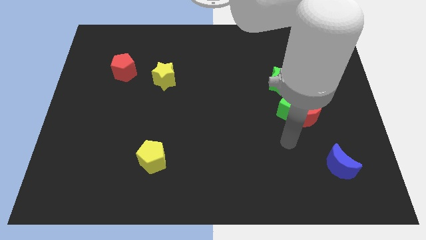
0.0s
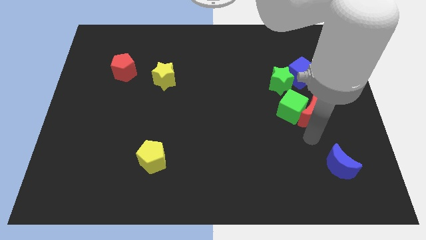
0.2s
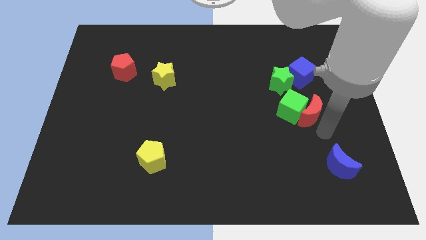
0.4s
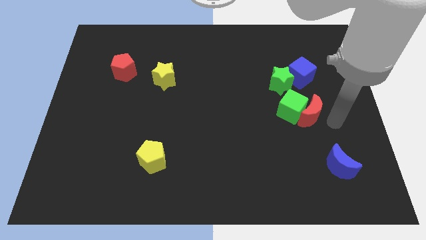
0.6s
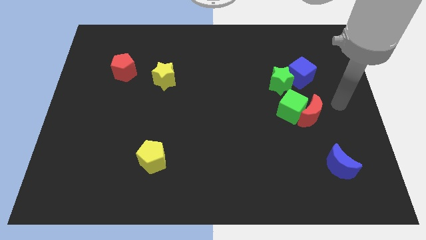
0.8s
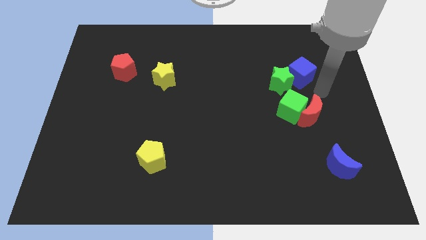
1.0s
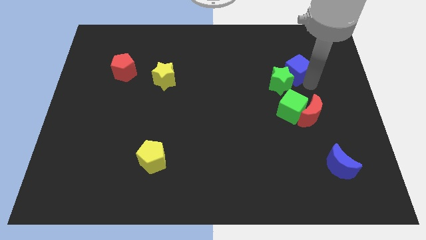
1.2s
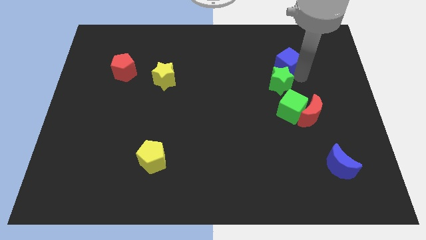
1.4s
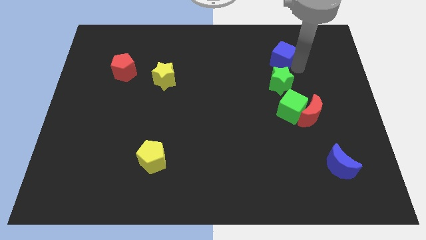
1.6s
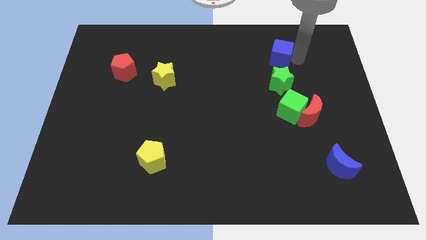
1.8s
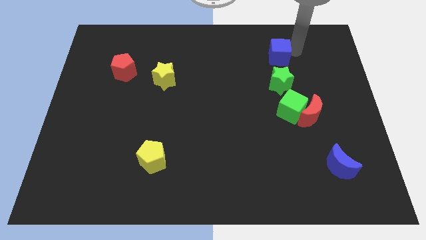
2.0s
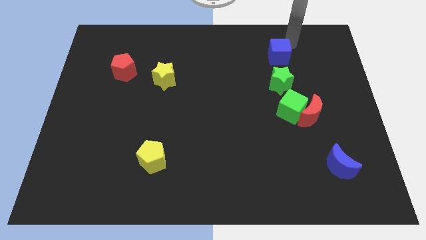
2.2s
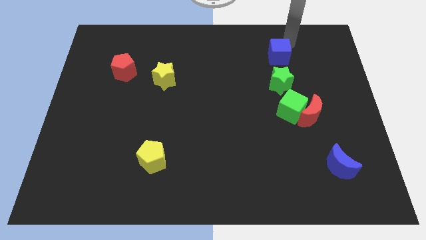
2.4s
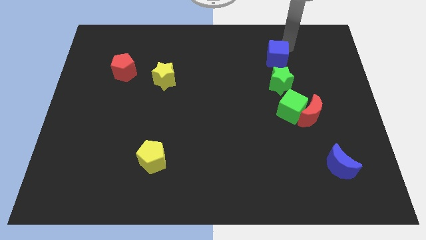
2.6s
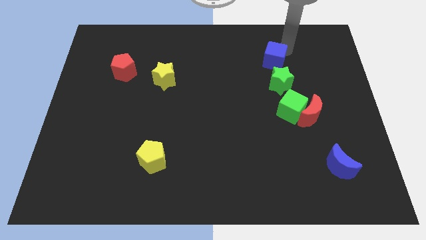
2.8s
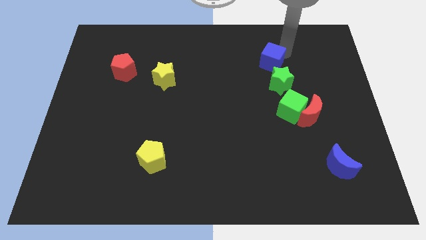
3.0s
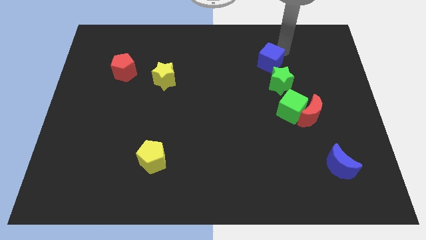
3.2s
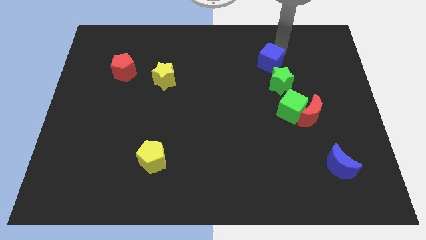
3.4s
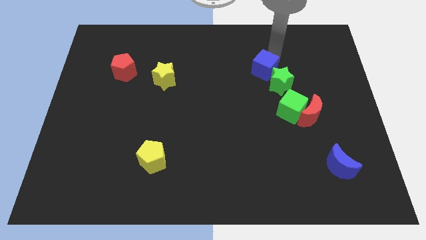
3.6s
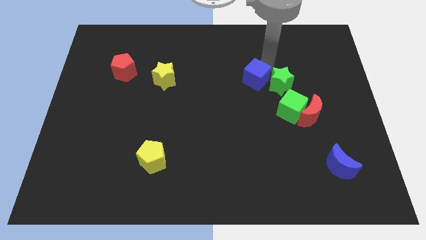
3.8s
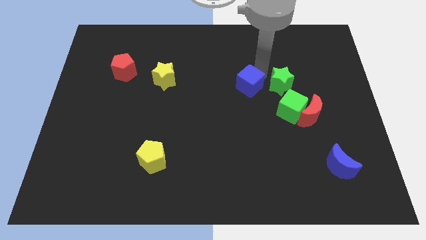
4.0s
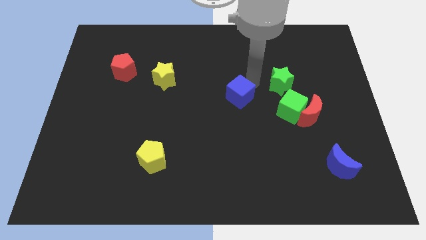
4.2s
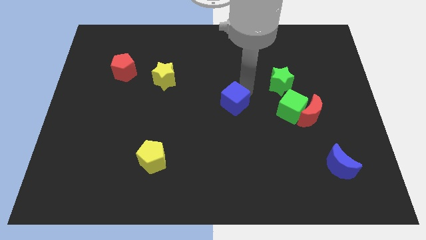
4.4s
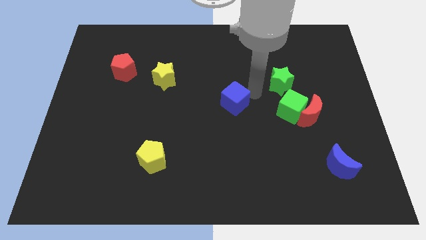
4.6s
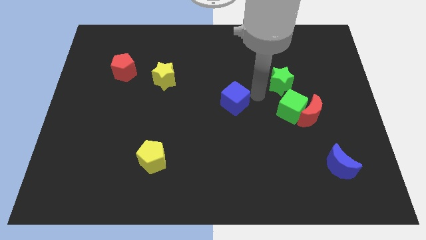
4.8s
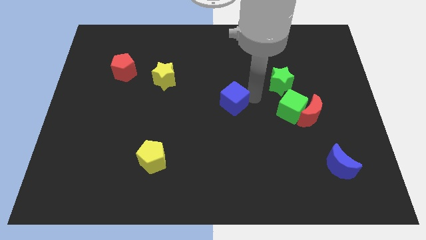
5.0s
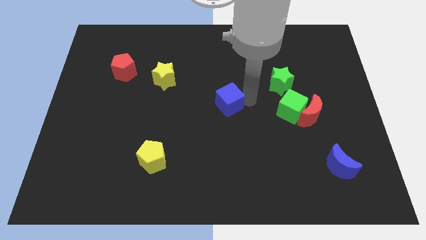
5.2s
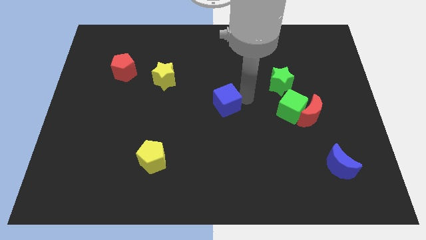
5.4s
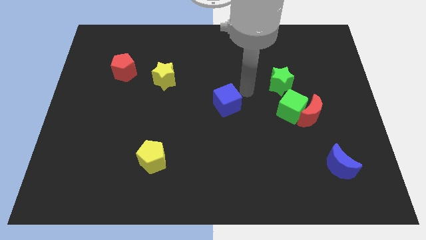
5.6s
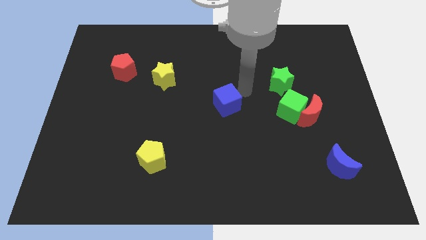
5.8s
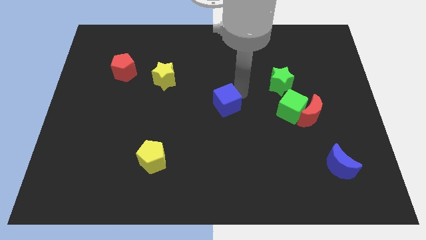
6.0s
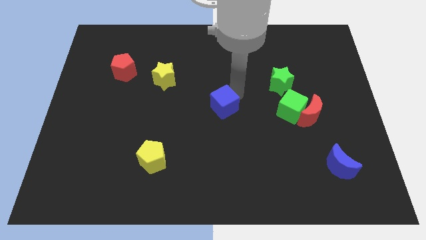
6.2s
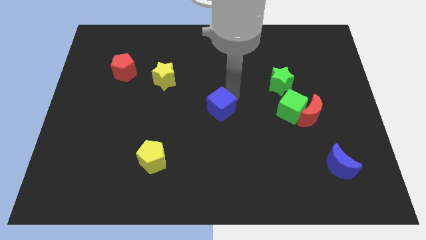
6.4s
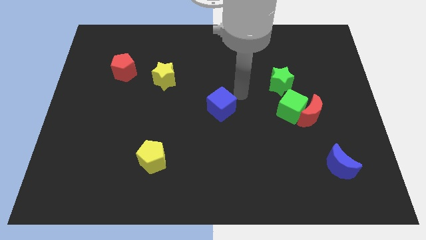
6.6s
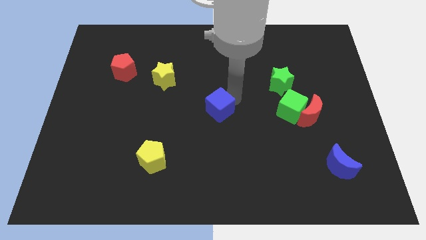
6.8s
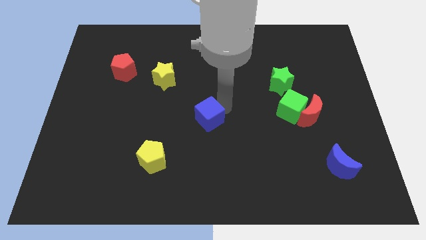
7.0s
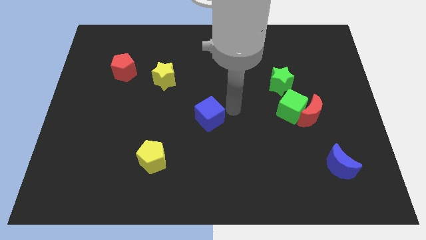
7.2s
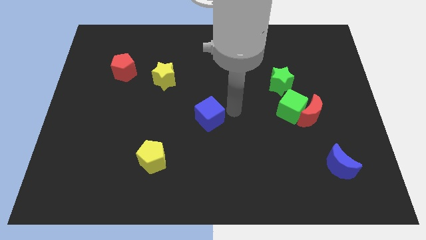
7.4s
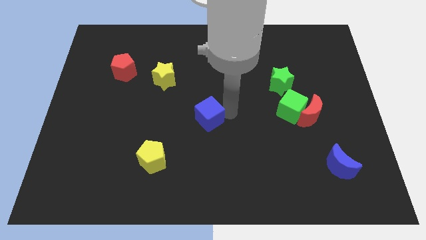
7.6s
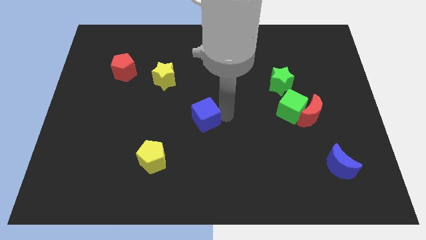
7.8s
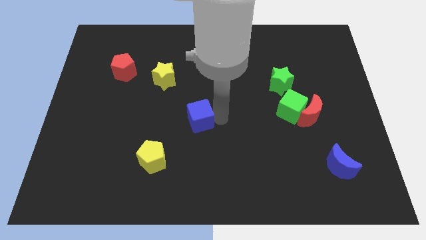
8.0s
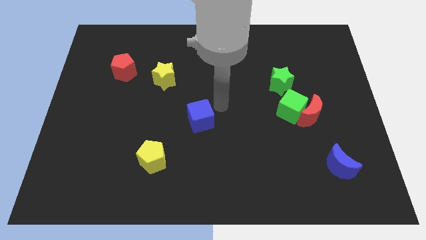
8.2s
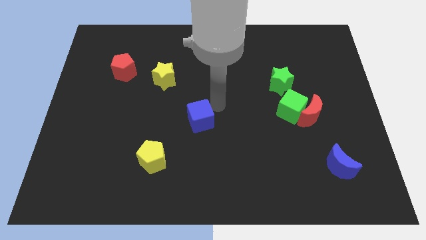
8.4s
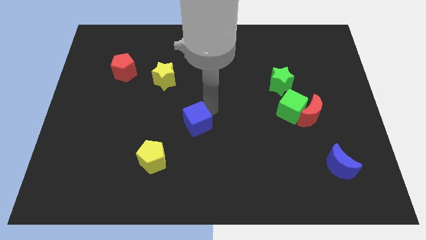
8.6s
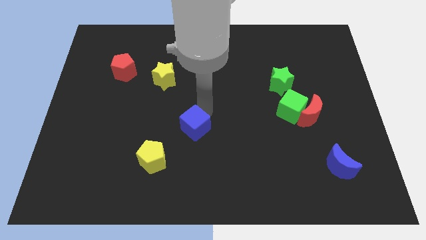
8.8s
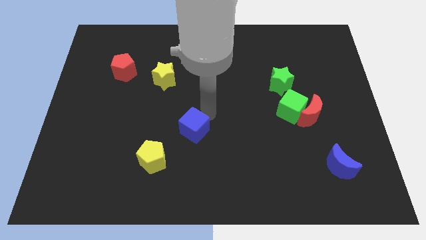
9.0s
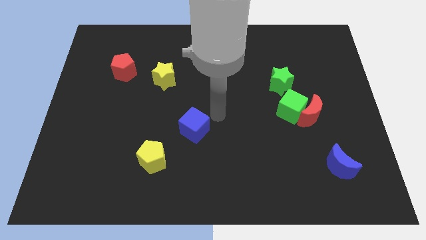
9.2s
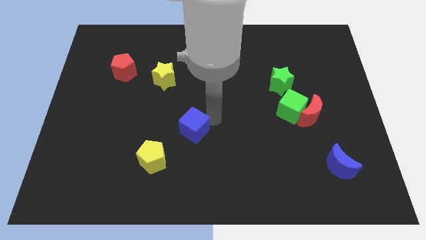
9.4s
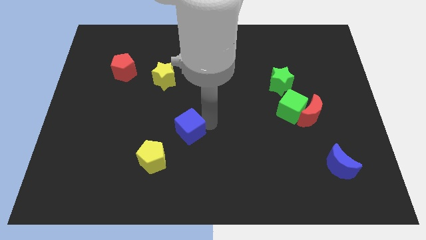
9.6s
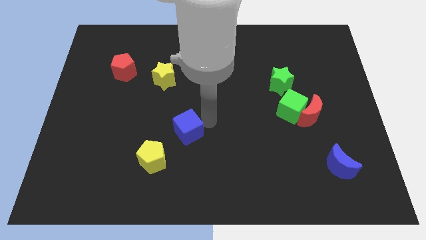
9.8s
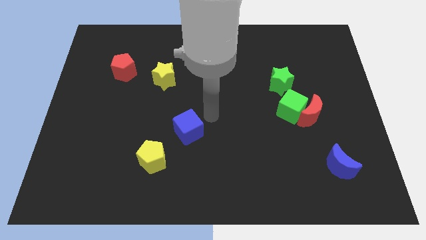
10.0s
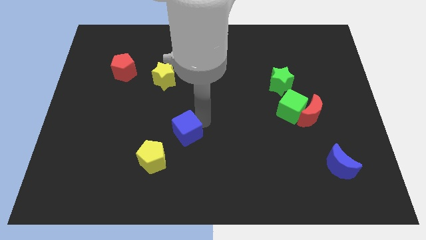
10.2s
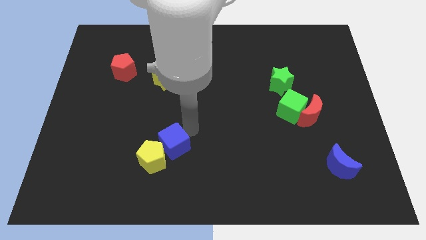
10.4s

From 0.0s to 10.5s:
move the blue cube towards the yellow pentagon
